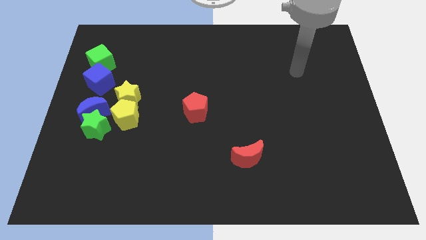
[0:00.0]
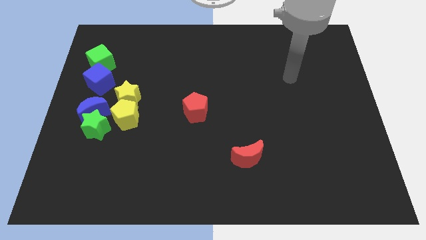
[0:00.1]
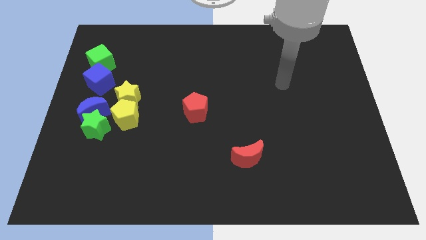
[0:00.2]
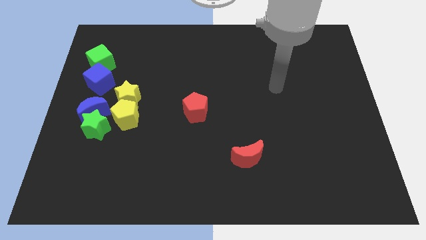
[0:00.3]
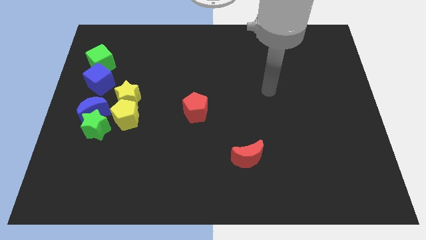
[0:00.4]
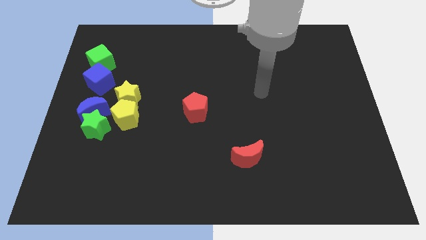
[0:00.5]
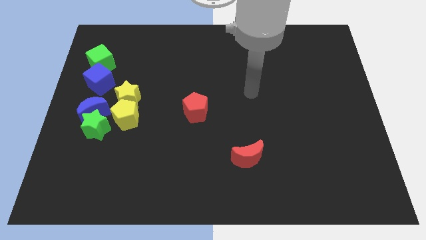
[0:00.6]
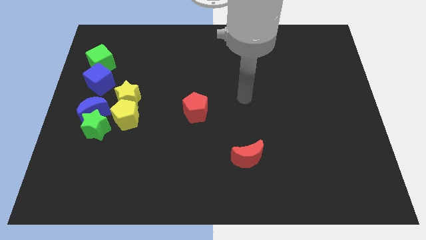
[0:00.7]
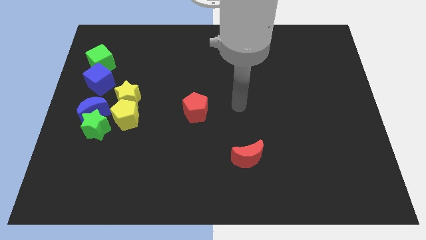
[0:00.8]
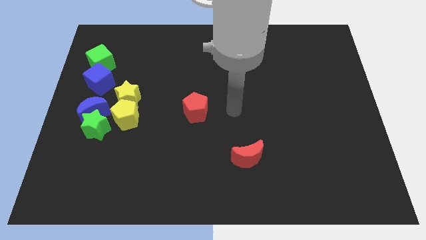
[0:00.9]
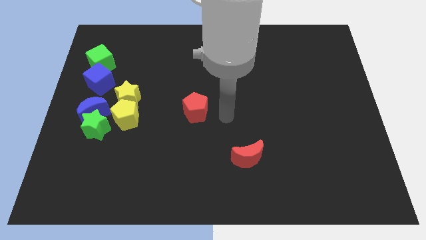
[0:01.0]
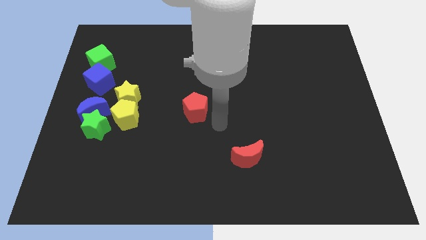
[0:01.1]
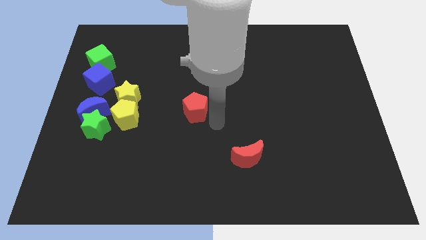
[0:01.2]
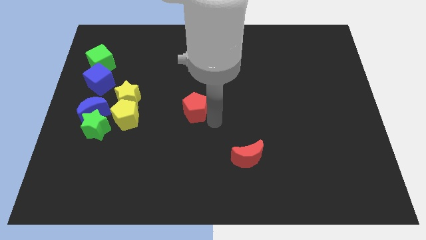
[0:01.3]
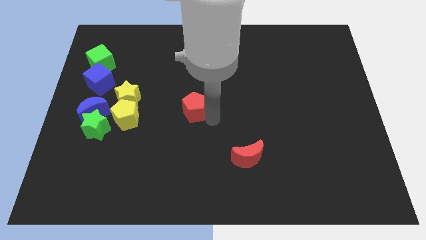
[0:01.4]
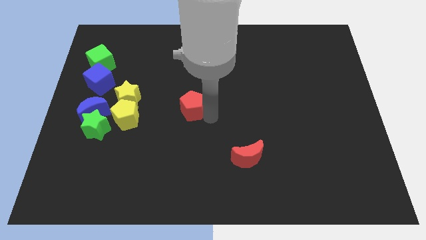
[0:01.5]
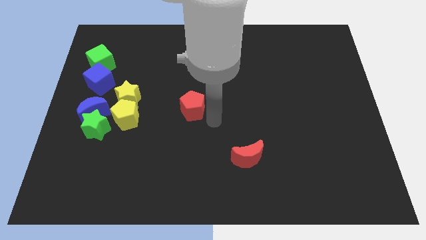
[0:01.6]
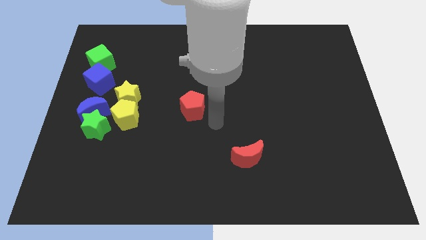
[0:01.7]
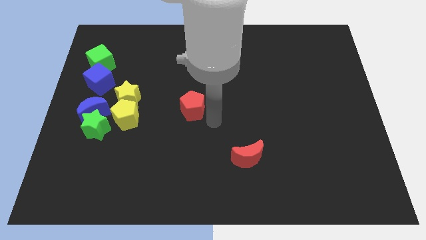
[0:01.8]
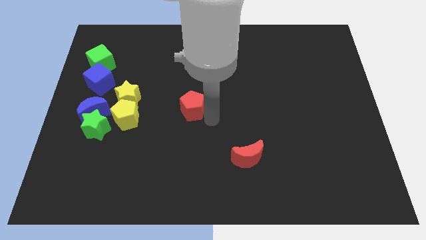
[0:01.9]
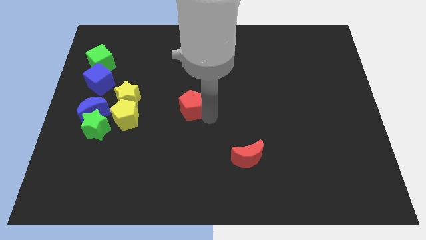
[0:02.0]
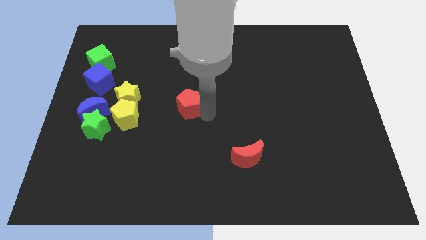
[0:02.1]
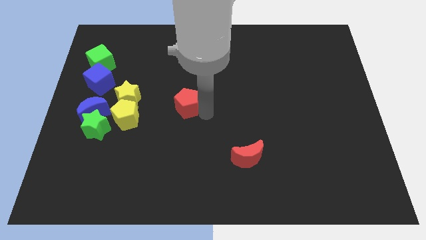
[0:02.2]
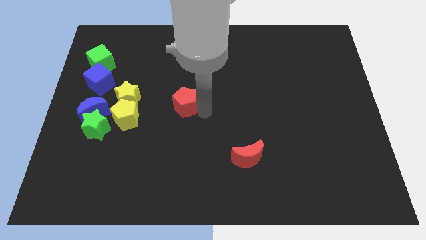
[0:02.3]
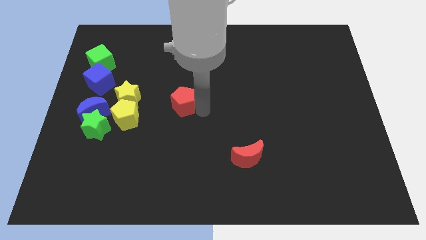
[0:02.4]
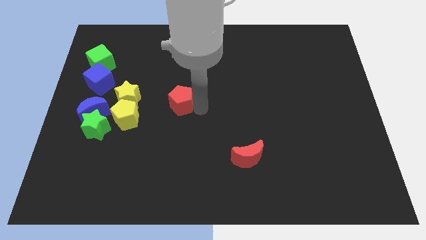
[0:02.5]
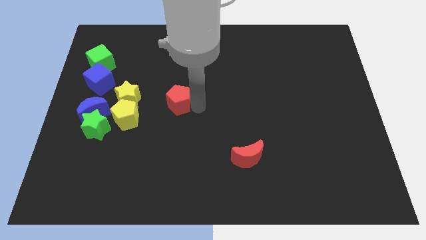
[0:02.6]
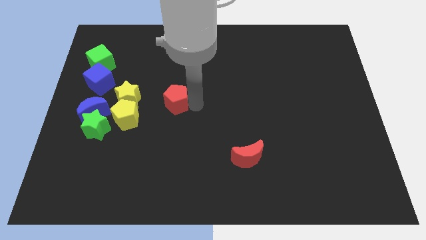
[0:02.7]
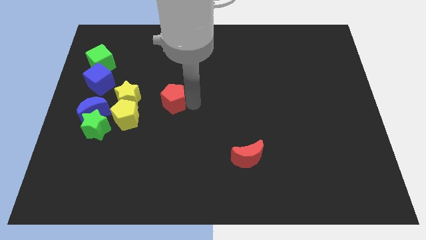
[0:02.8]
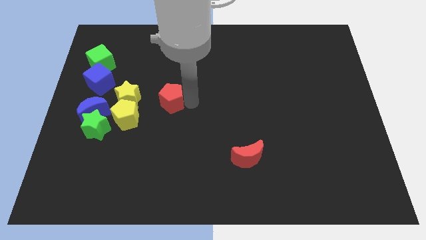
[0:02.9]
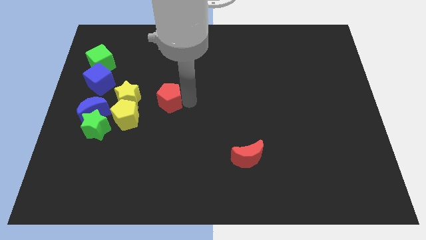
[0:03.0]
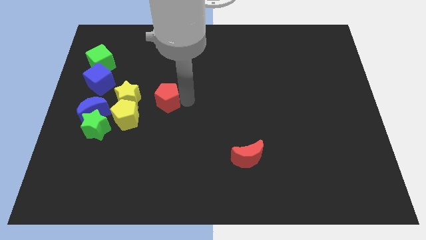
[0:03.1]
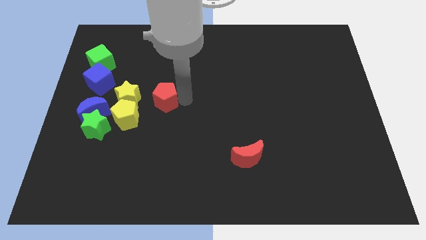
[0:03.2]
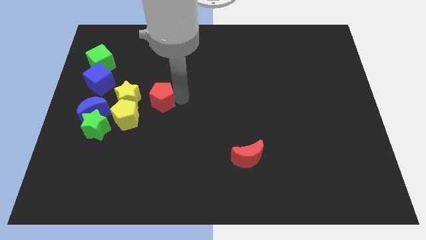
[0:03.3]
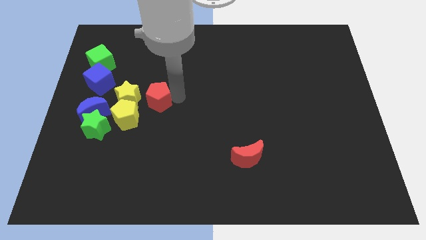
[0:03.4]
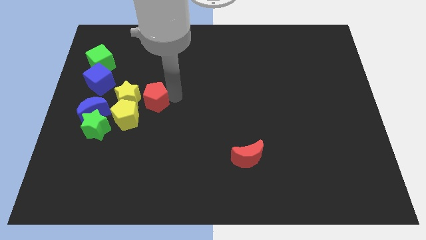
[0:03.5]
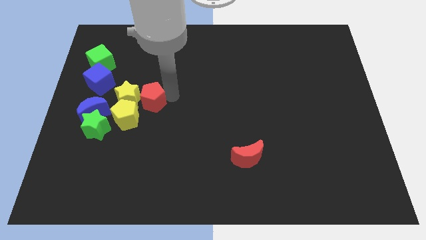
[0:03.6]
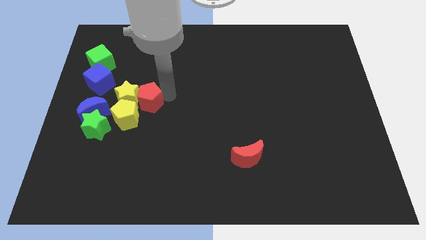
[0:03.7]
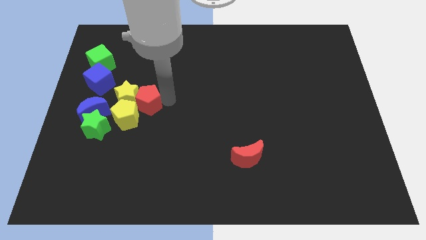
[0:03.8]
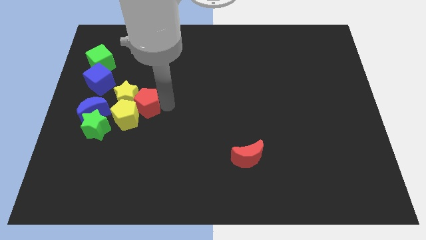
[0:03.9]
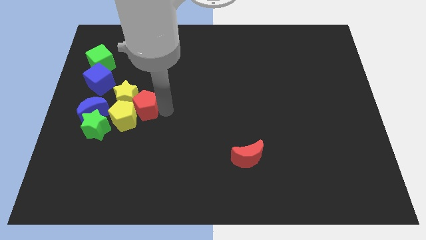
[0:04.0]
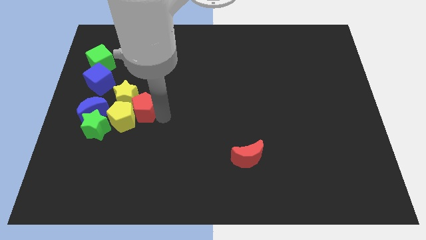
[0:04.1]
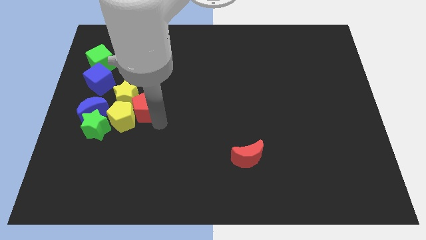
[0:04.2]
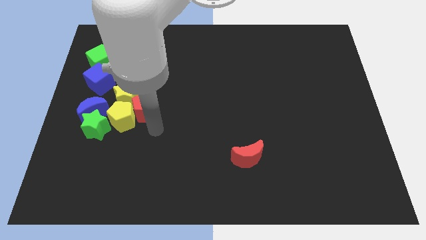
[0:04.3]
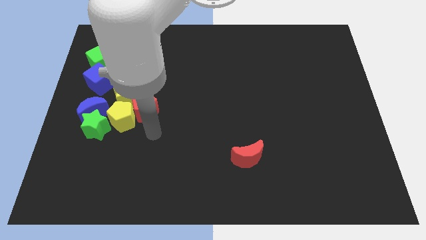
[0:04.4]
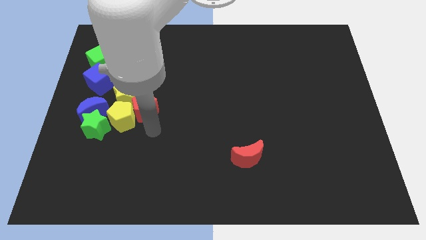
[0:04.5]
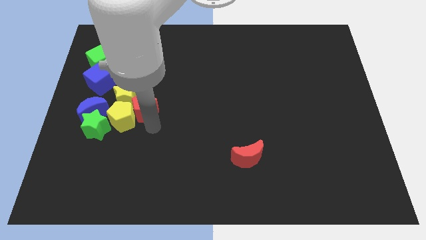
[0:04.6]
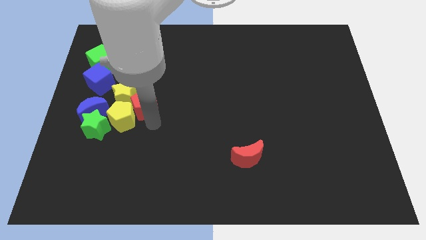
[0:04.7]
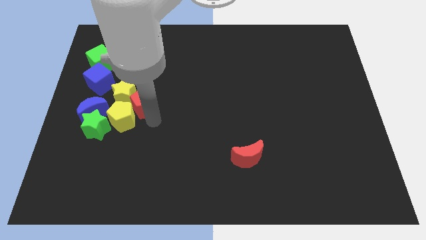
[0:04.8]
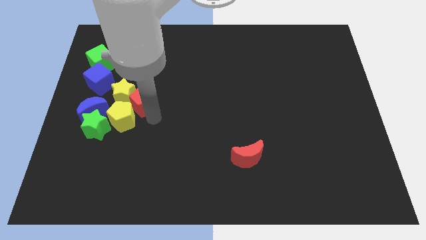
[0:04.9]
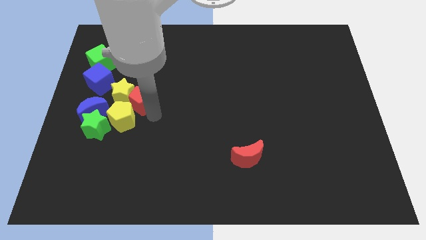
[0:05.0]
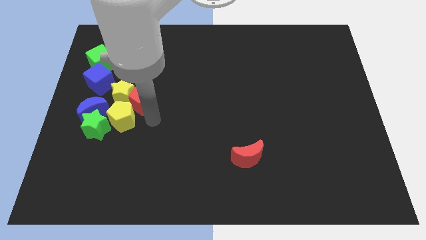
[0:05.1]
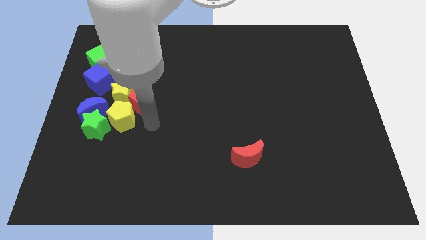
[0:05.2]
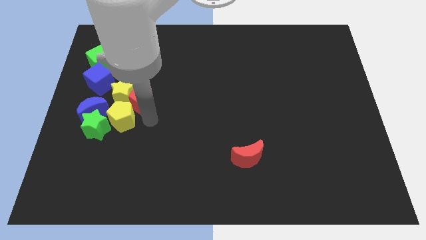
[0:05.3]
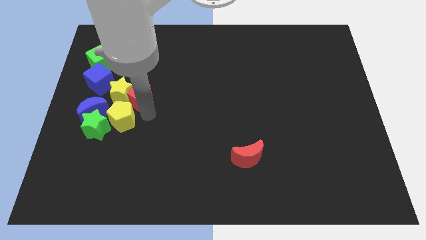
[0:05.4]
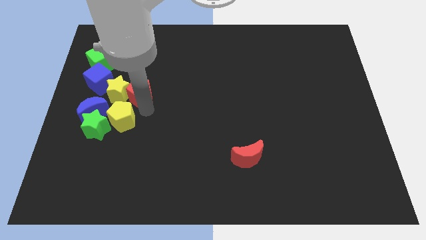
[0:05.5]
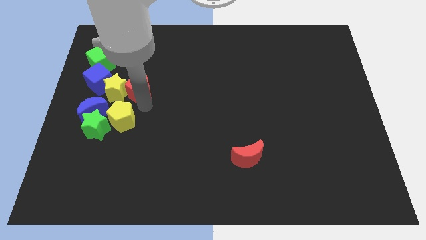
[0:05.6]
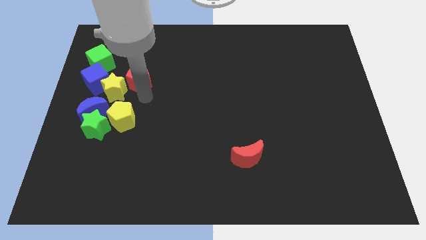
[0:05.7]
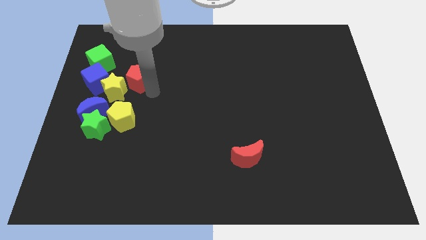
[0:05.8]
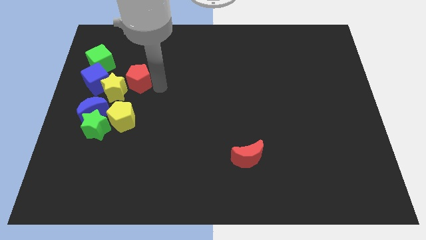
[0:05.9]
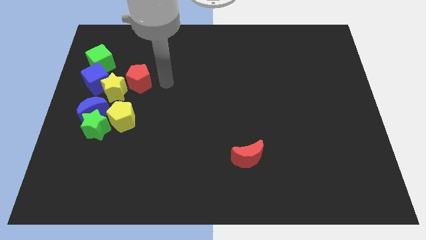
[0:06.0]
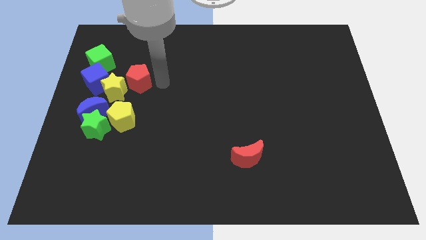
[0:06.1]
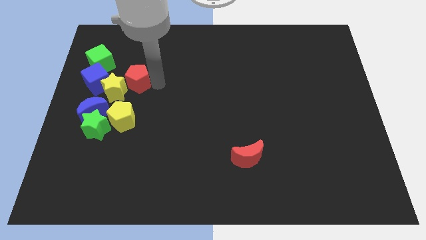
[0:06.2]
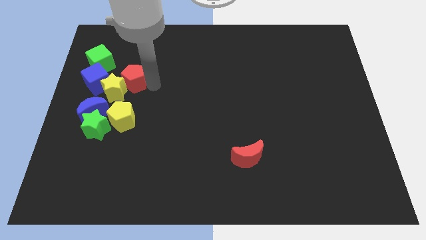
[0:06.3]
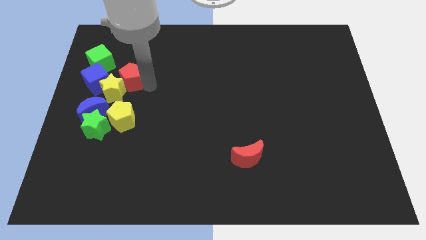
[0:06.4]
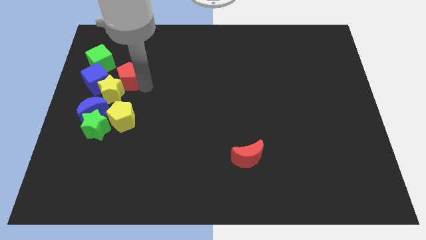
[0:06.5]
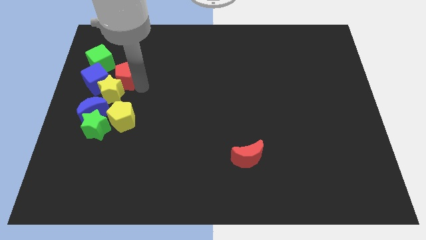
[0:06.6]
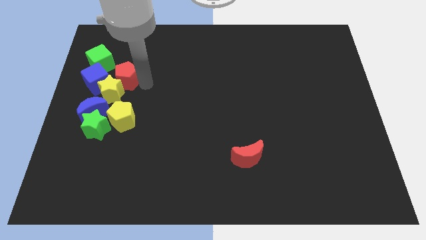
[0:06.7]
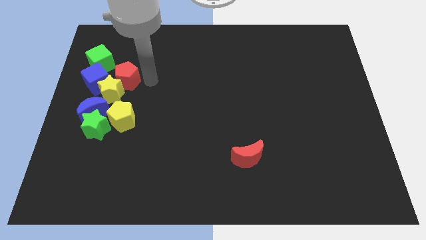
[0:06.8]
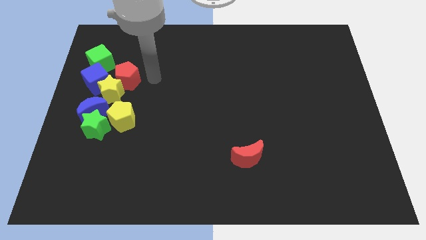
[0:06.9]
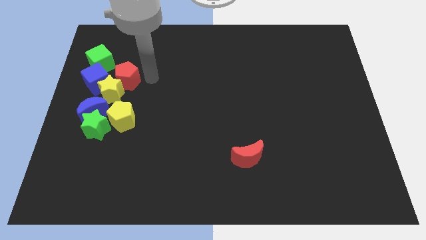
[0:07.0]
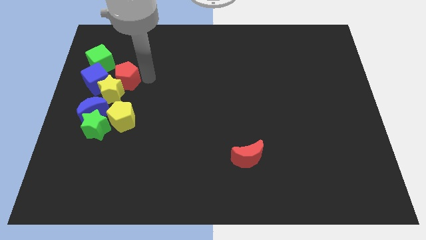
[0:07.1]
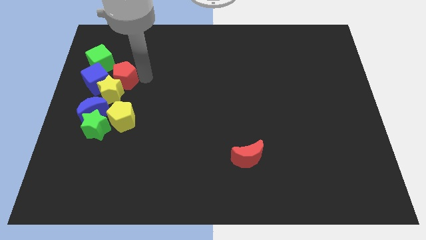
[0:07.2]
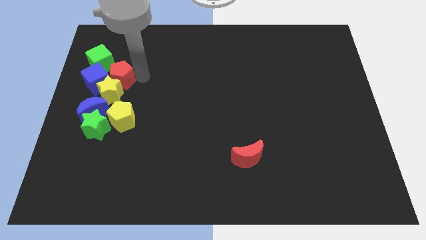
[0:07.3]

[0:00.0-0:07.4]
push the red pentagon close to the blue cube
